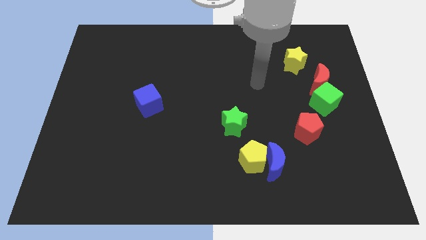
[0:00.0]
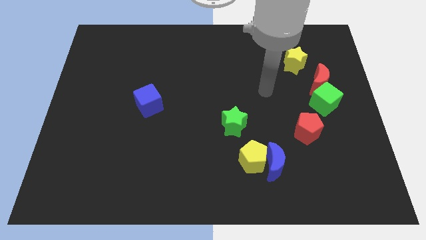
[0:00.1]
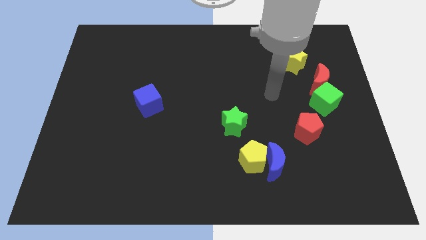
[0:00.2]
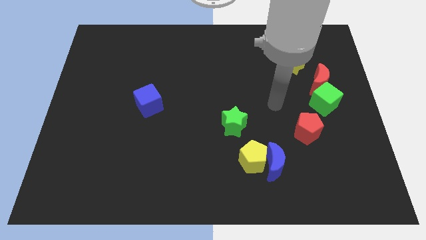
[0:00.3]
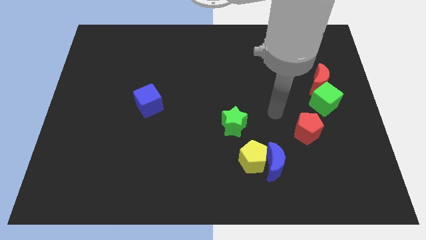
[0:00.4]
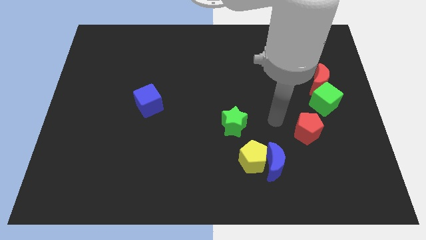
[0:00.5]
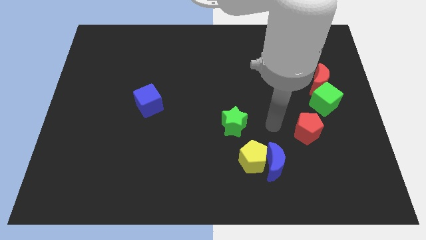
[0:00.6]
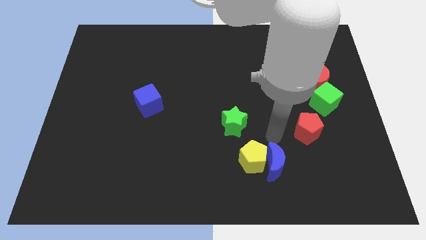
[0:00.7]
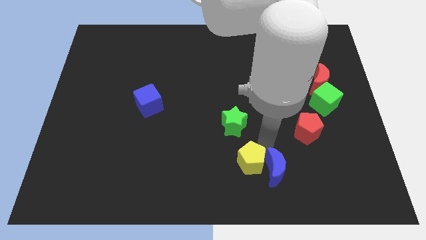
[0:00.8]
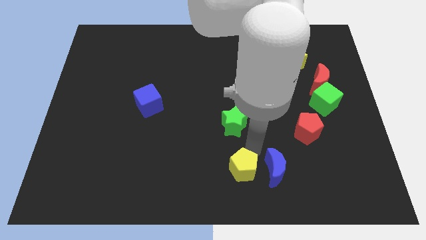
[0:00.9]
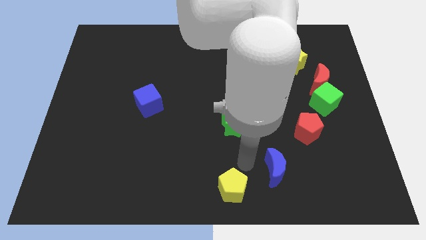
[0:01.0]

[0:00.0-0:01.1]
separate the blue moon from the yellow pentagon

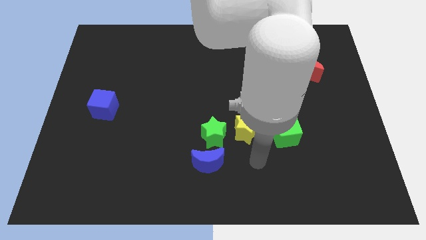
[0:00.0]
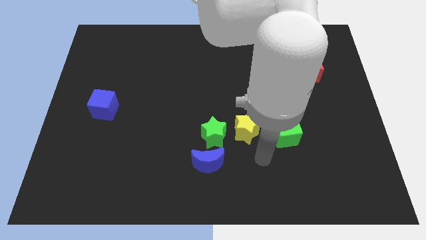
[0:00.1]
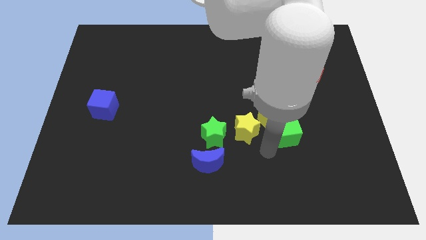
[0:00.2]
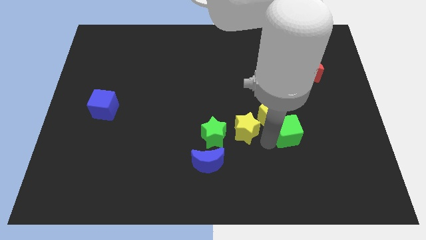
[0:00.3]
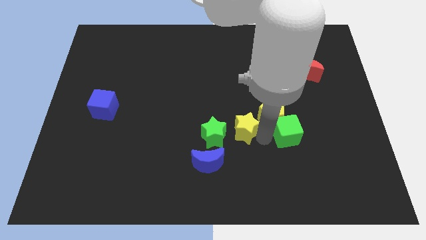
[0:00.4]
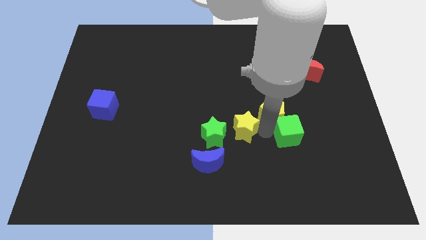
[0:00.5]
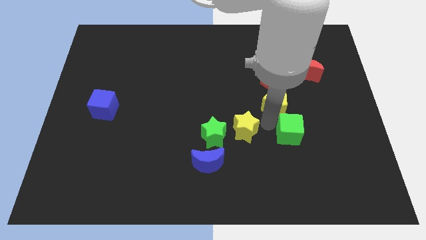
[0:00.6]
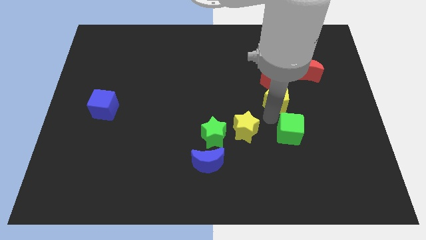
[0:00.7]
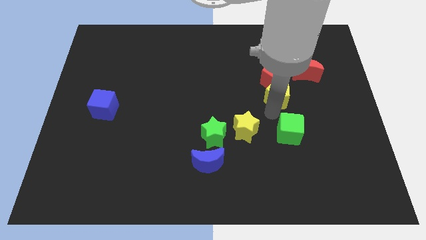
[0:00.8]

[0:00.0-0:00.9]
pull the yellow pentagon apart from the green cube and yellow star

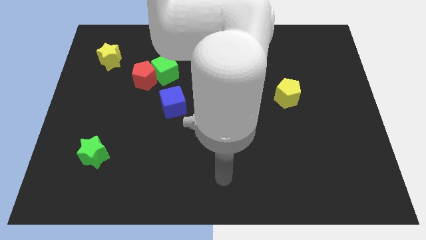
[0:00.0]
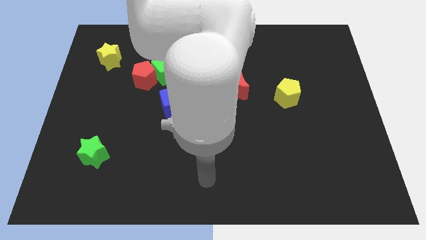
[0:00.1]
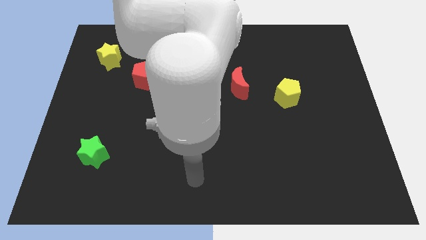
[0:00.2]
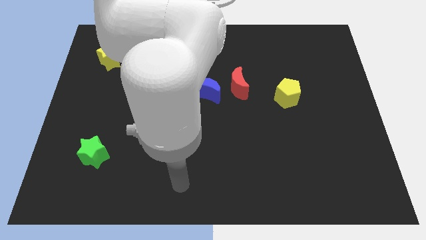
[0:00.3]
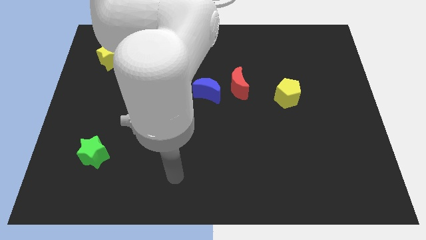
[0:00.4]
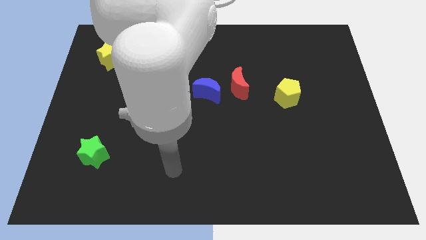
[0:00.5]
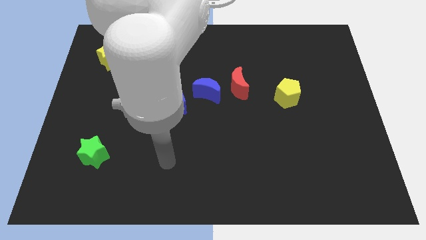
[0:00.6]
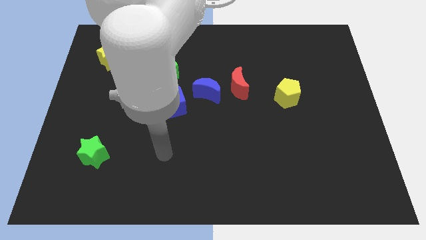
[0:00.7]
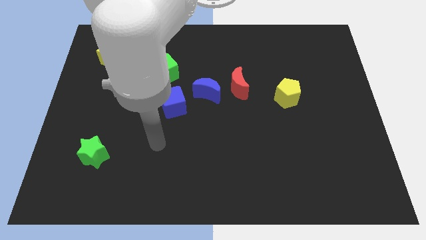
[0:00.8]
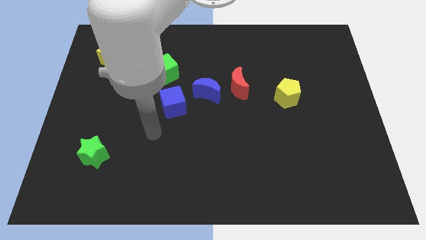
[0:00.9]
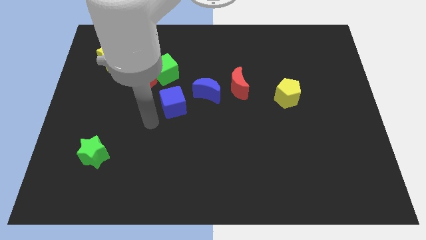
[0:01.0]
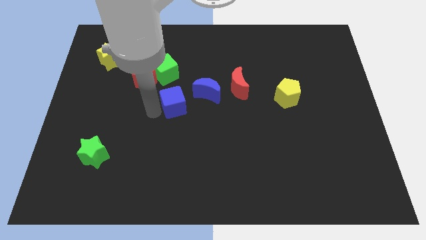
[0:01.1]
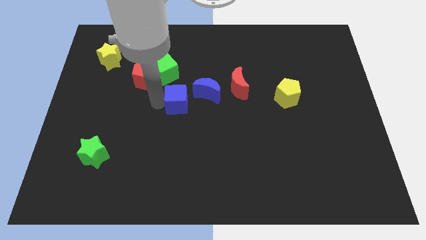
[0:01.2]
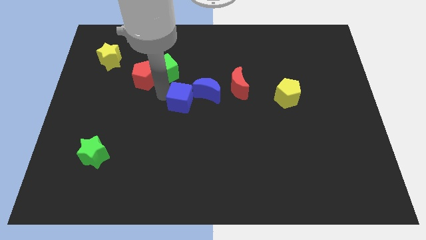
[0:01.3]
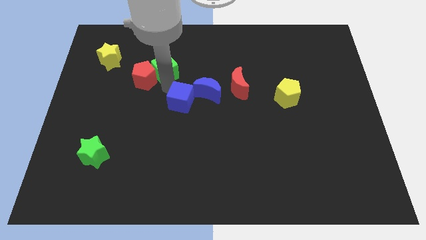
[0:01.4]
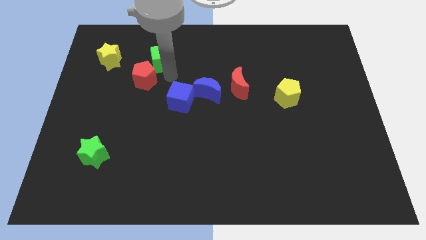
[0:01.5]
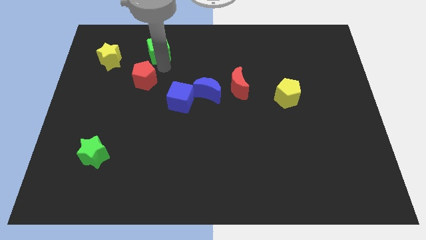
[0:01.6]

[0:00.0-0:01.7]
move the red pentagon away from the green cube

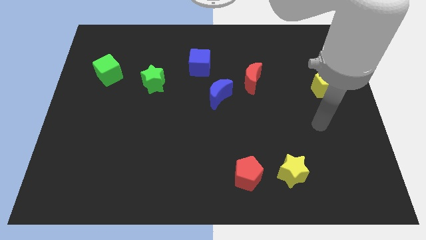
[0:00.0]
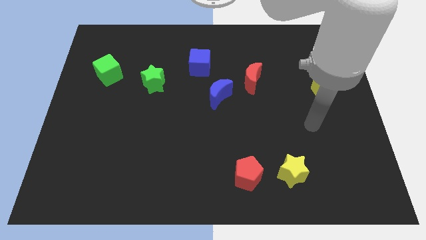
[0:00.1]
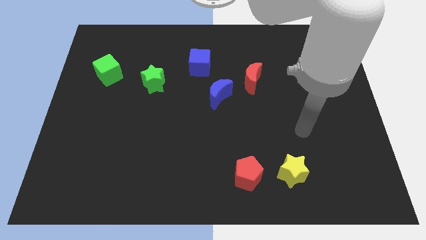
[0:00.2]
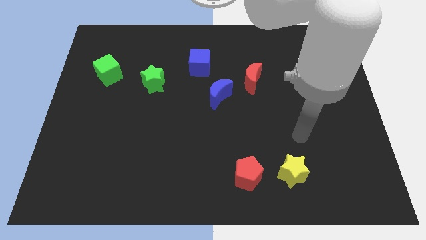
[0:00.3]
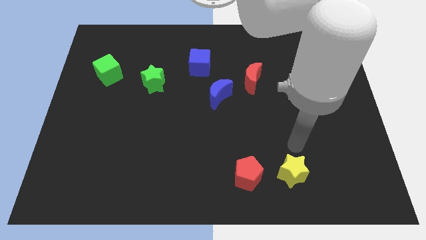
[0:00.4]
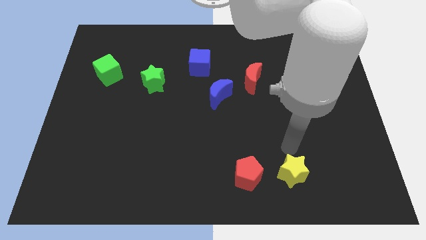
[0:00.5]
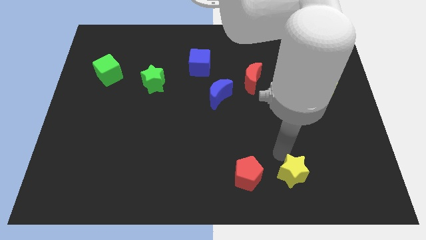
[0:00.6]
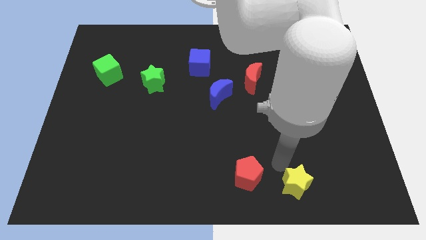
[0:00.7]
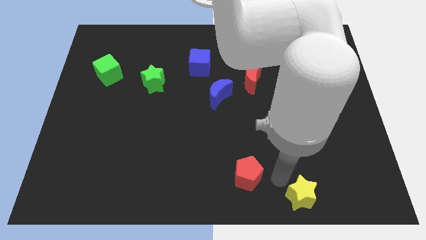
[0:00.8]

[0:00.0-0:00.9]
move the red pentagon away from the yellow star

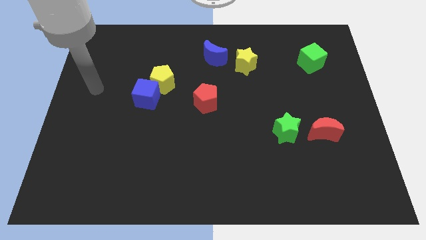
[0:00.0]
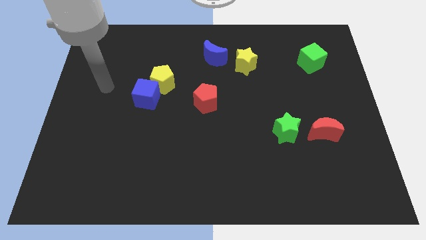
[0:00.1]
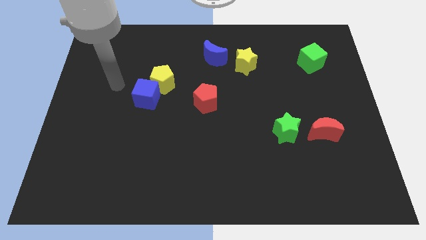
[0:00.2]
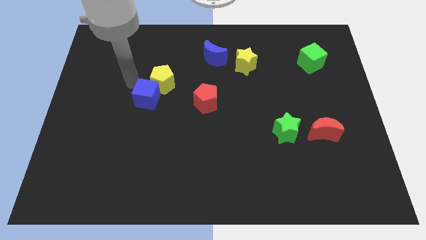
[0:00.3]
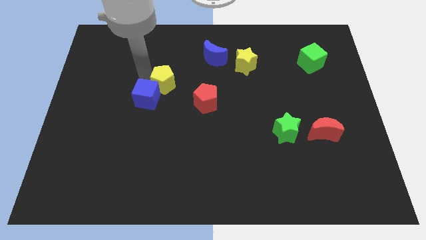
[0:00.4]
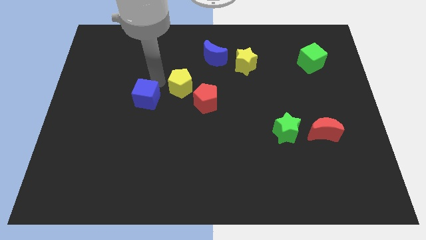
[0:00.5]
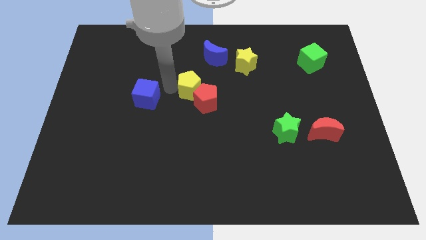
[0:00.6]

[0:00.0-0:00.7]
pull the blue cube apart from the yellow pentagon

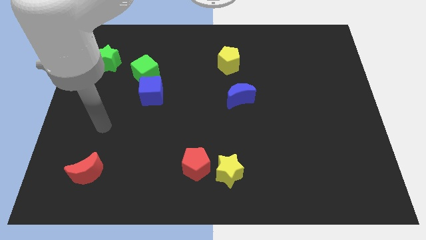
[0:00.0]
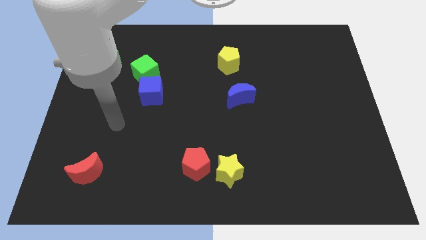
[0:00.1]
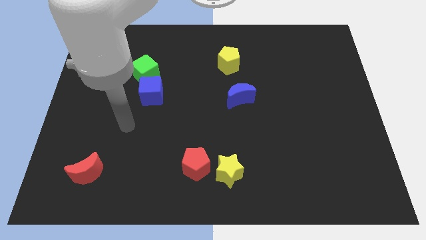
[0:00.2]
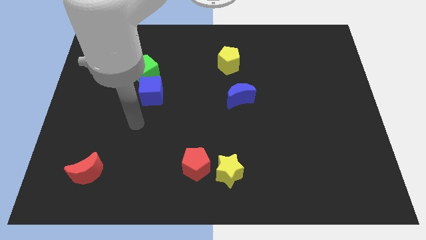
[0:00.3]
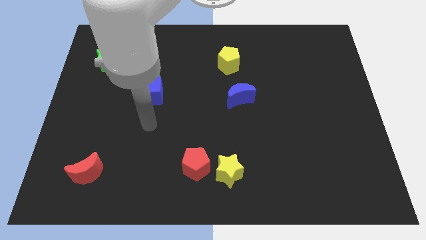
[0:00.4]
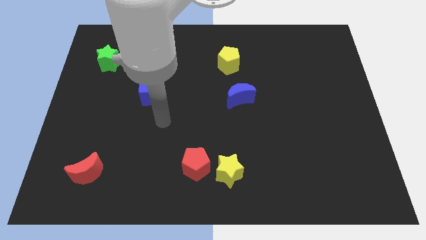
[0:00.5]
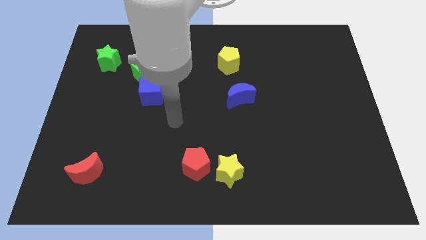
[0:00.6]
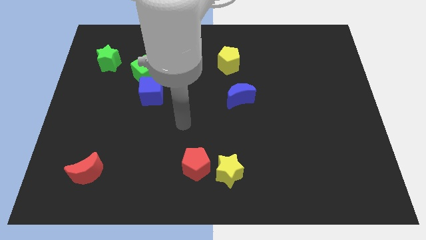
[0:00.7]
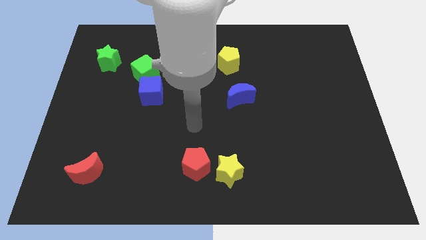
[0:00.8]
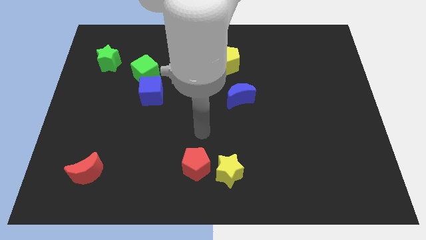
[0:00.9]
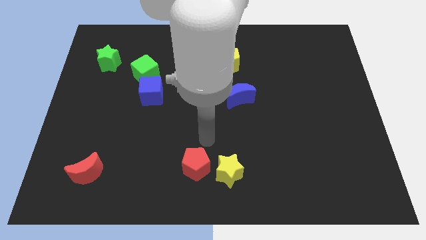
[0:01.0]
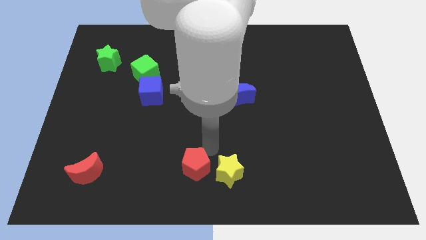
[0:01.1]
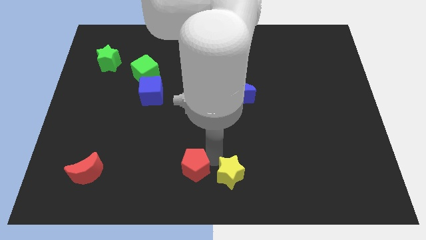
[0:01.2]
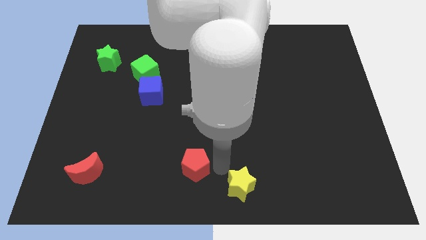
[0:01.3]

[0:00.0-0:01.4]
pull the red pentagon apart from the yellow star

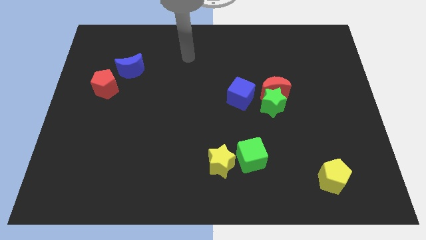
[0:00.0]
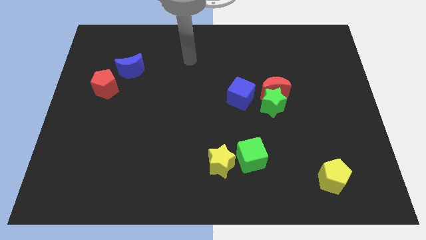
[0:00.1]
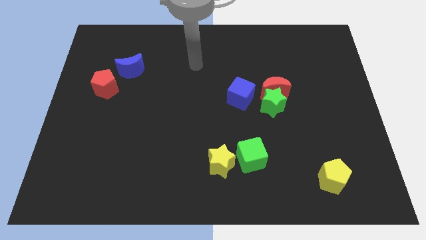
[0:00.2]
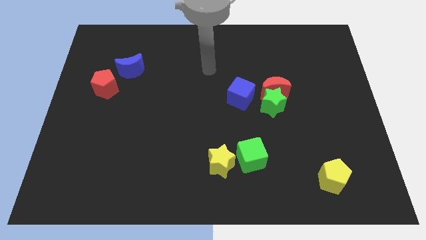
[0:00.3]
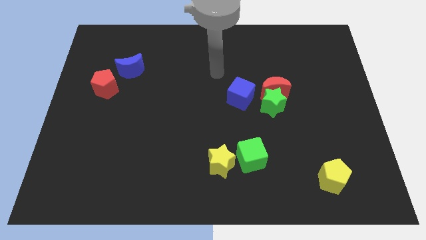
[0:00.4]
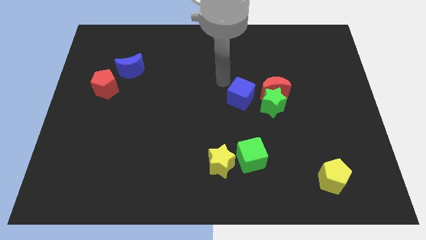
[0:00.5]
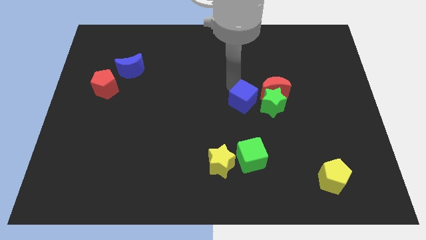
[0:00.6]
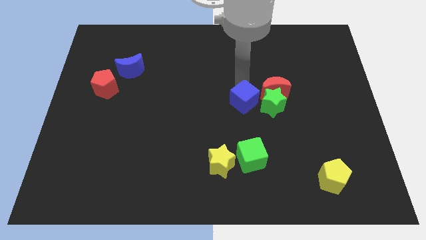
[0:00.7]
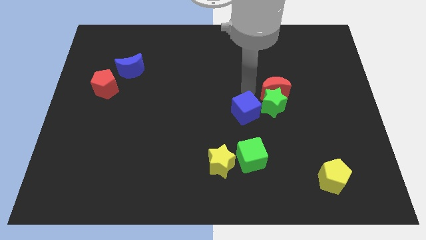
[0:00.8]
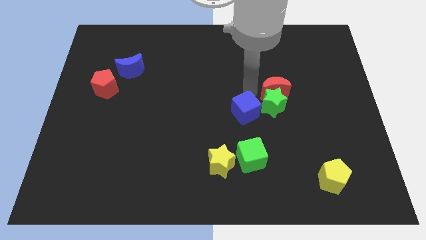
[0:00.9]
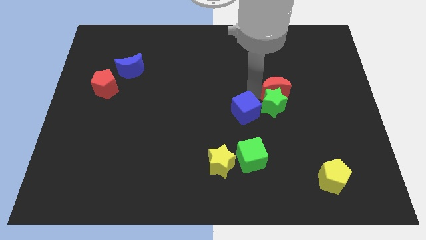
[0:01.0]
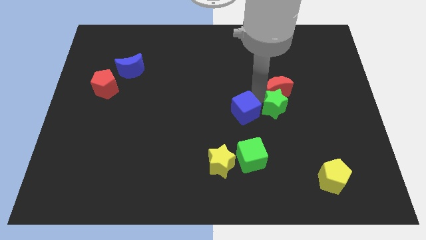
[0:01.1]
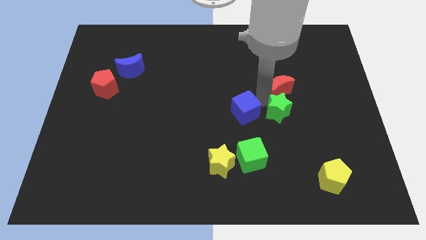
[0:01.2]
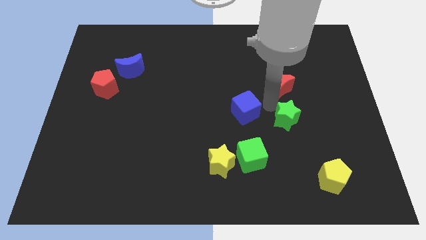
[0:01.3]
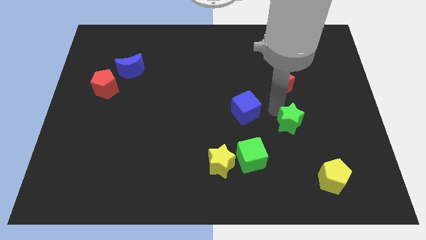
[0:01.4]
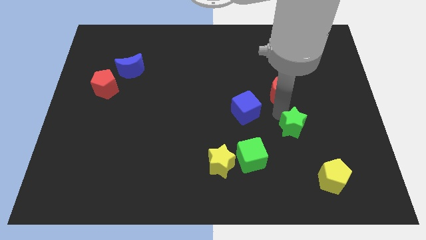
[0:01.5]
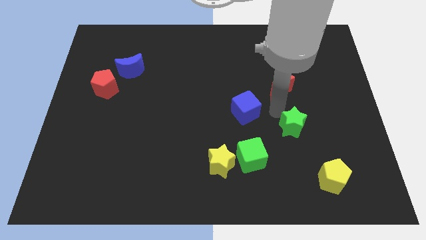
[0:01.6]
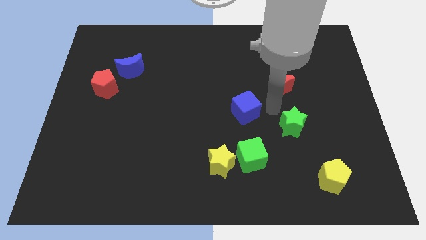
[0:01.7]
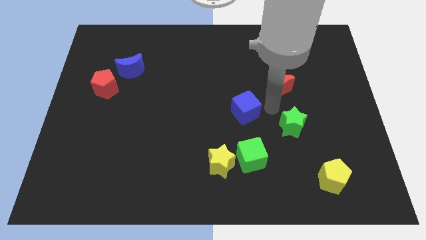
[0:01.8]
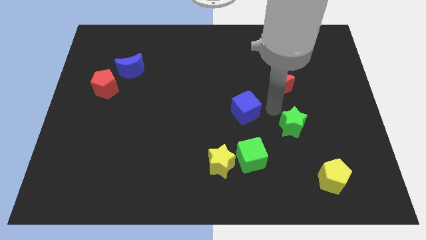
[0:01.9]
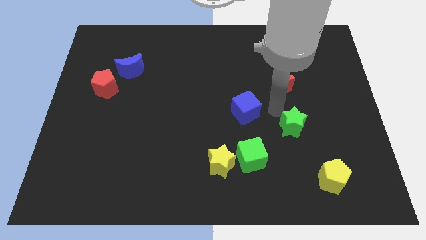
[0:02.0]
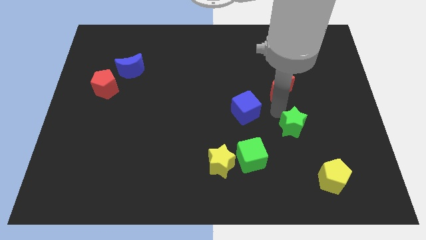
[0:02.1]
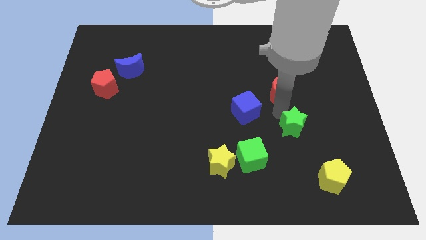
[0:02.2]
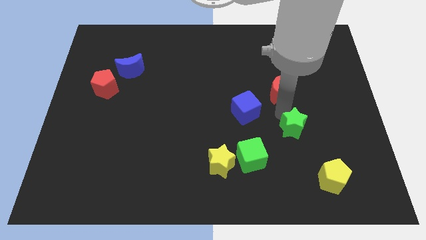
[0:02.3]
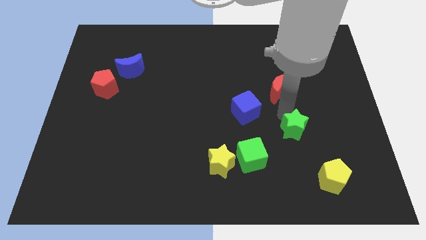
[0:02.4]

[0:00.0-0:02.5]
separate the green star from the red moon and blue cube
